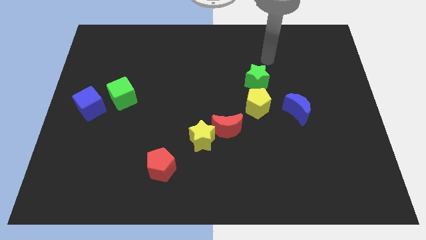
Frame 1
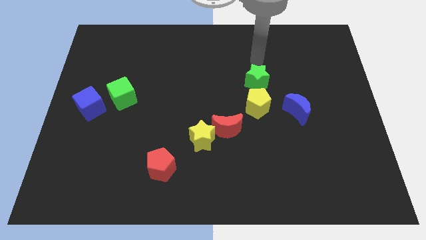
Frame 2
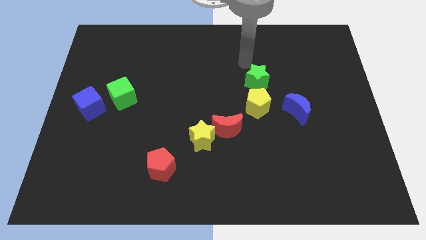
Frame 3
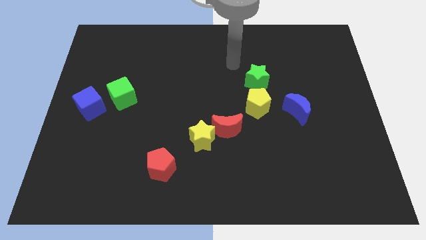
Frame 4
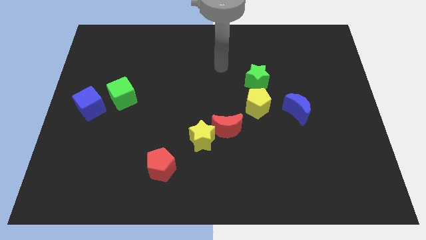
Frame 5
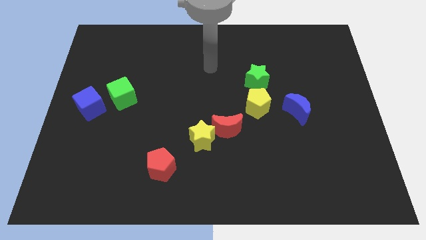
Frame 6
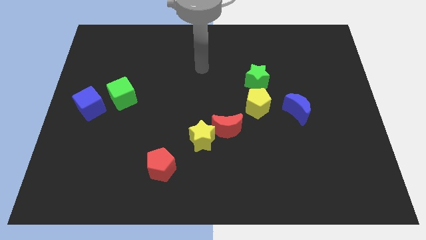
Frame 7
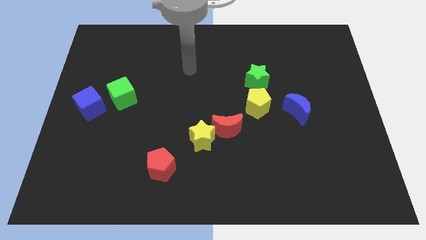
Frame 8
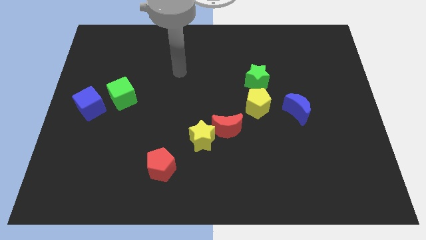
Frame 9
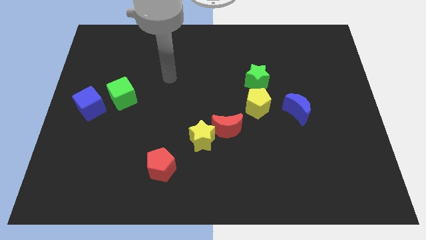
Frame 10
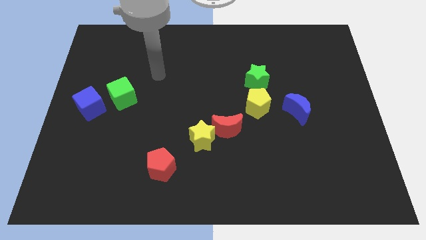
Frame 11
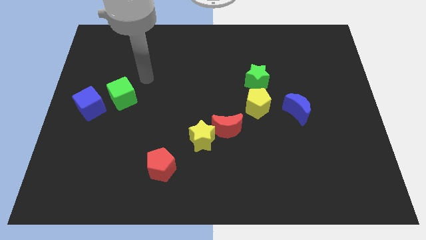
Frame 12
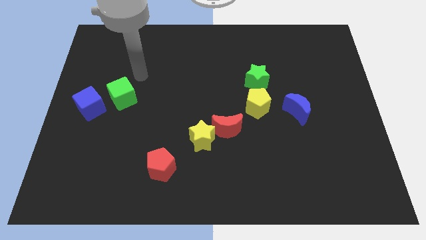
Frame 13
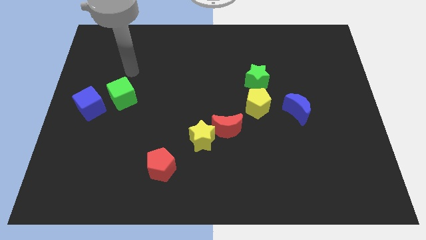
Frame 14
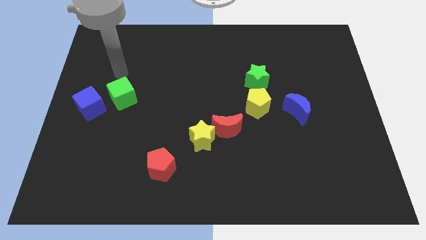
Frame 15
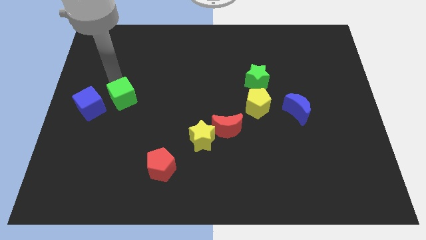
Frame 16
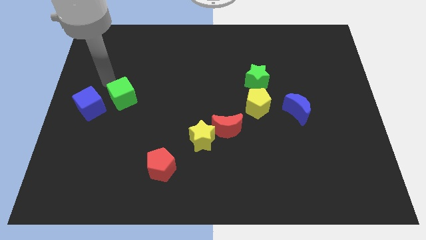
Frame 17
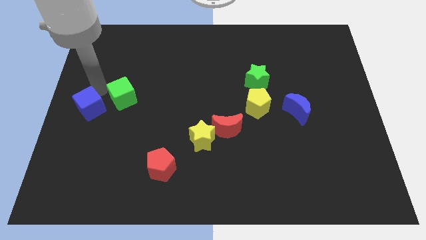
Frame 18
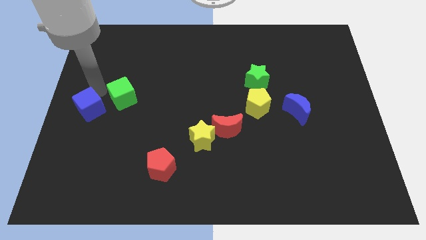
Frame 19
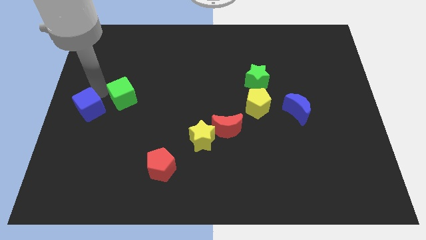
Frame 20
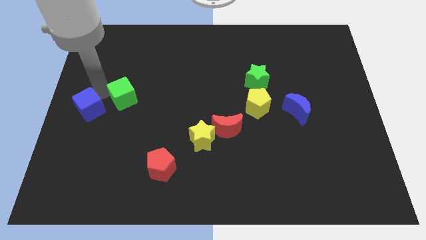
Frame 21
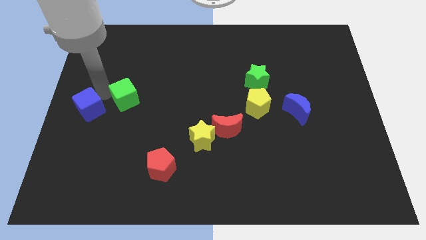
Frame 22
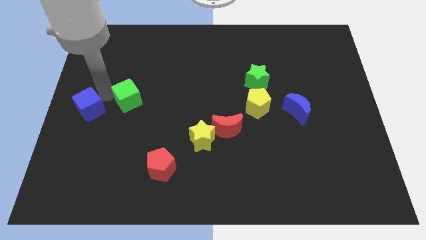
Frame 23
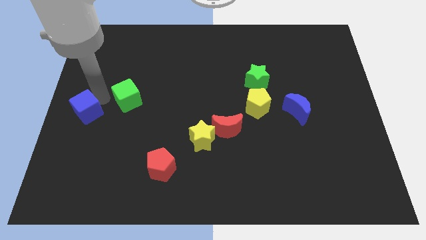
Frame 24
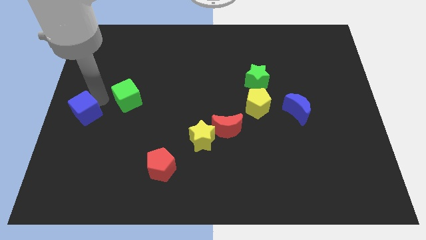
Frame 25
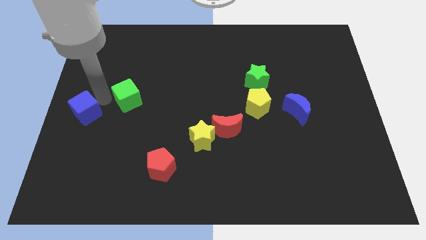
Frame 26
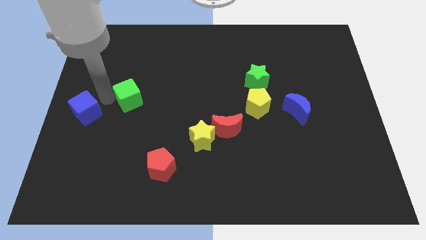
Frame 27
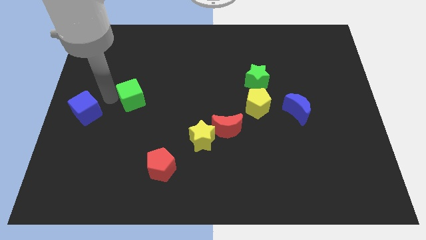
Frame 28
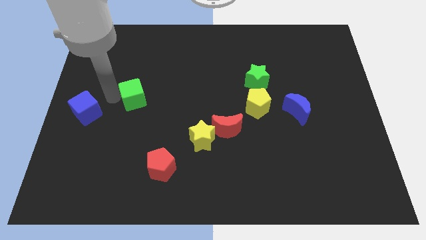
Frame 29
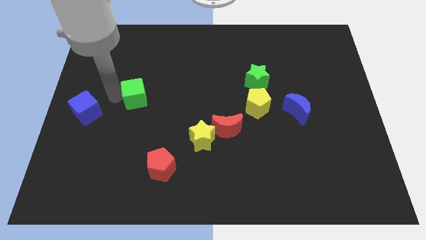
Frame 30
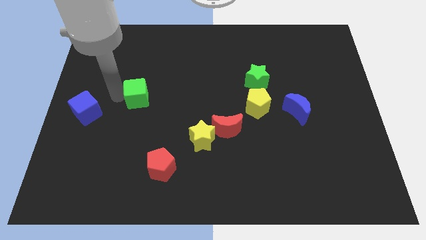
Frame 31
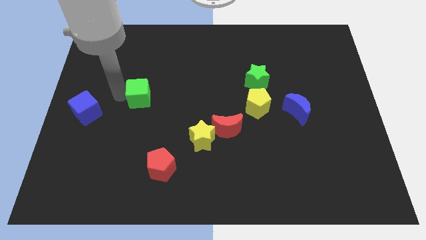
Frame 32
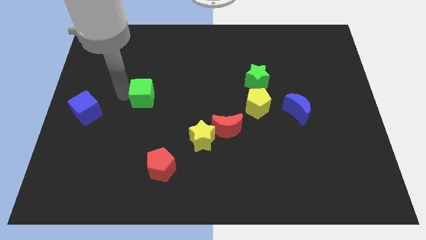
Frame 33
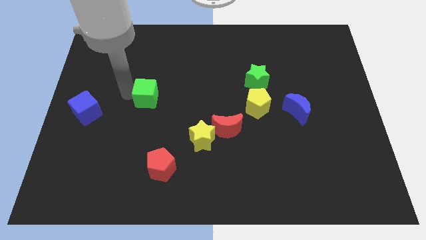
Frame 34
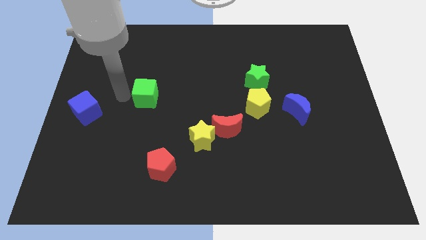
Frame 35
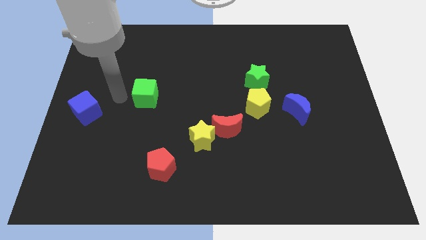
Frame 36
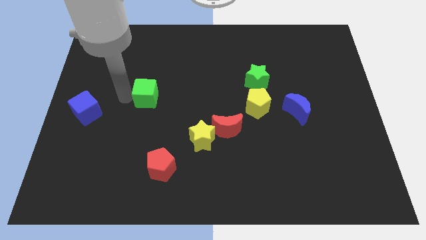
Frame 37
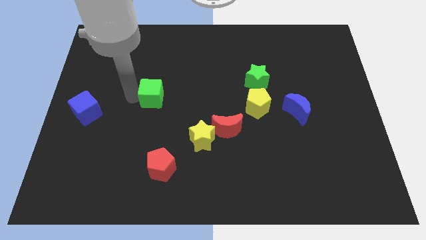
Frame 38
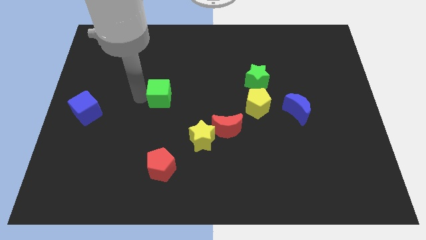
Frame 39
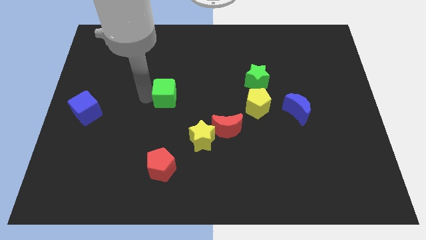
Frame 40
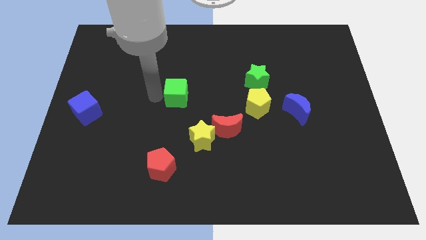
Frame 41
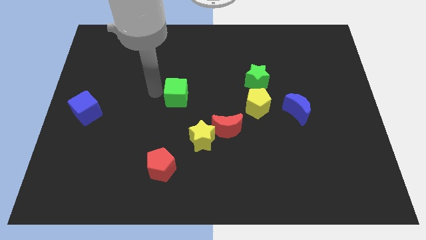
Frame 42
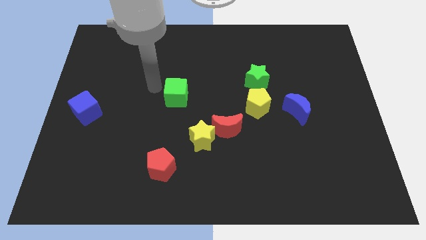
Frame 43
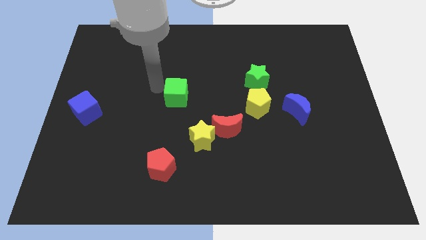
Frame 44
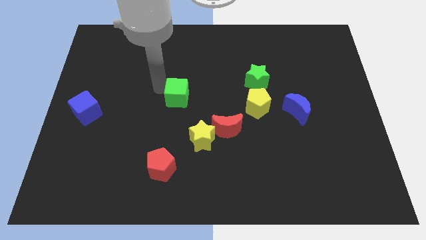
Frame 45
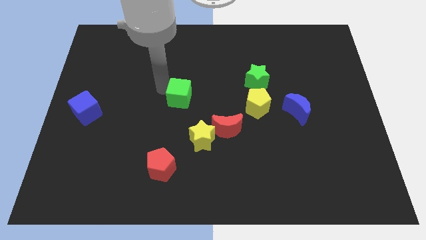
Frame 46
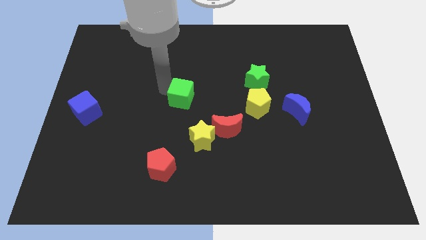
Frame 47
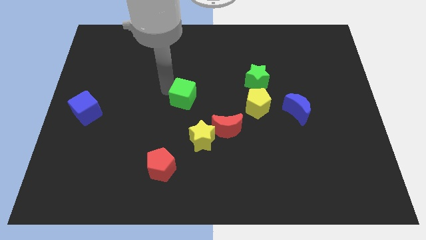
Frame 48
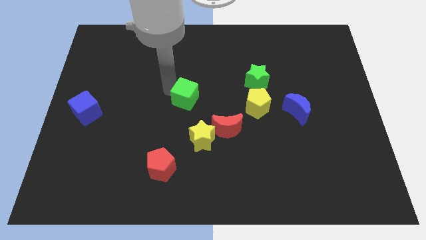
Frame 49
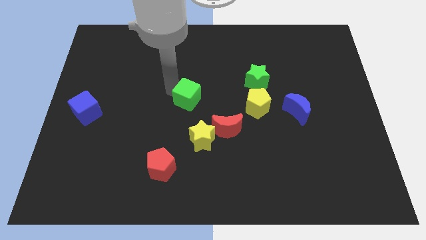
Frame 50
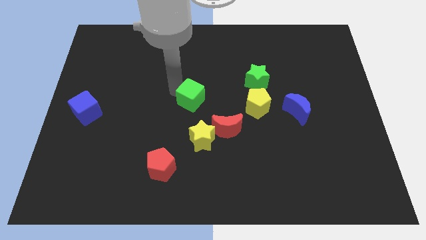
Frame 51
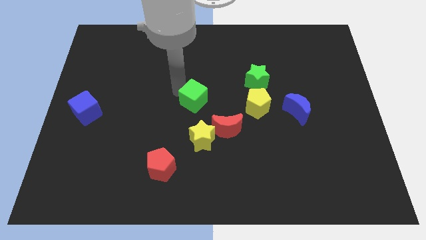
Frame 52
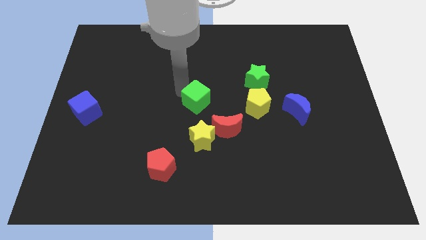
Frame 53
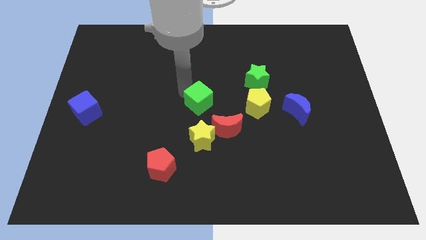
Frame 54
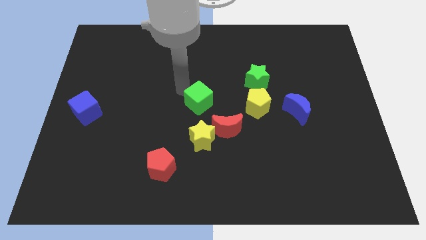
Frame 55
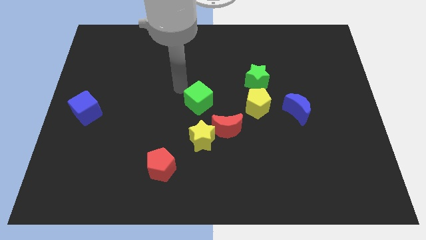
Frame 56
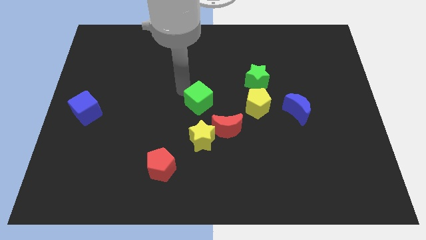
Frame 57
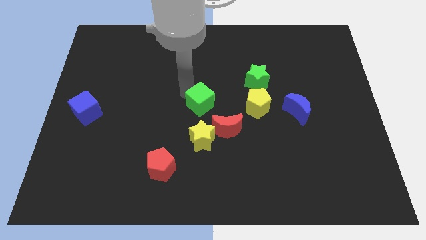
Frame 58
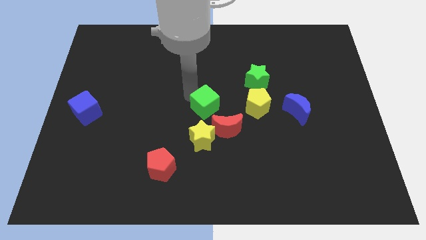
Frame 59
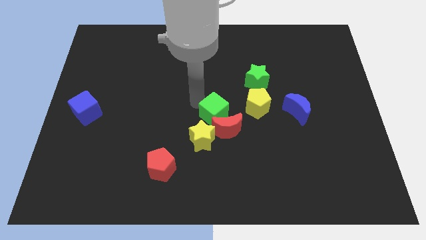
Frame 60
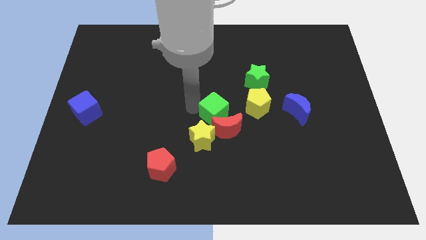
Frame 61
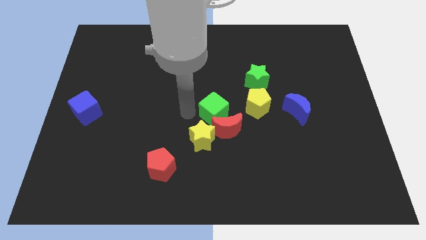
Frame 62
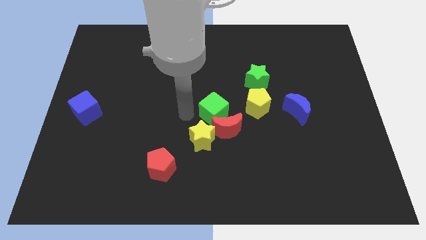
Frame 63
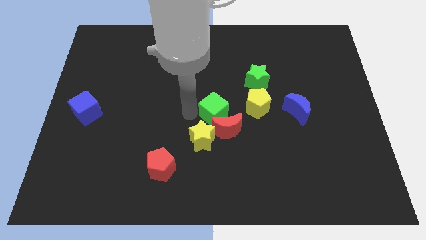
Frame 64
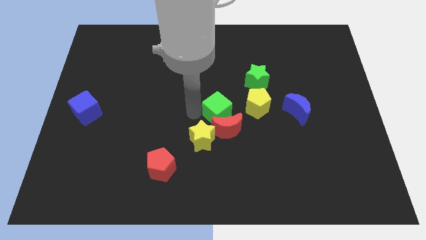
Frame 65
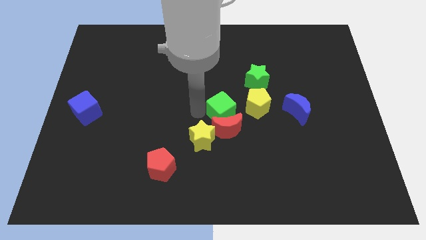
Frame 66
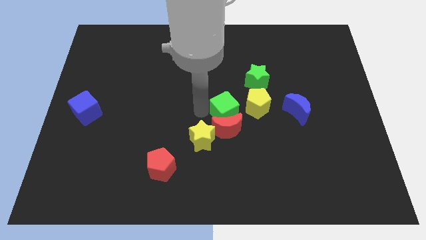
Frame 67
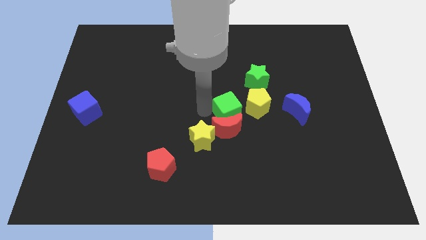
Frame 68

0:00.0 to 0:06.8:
put the green cube left of the blue moon

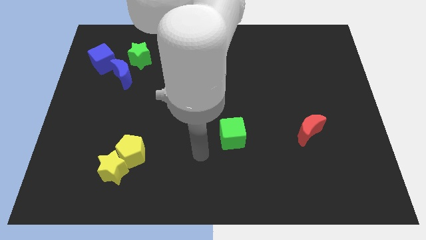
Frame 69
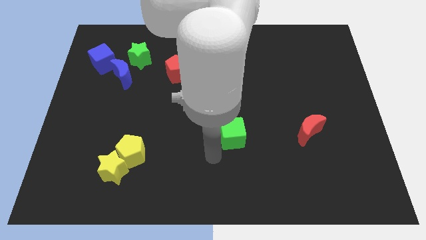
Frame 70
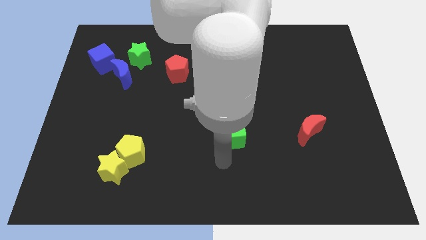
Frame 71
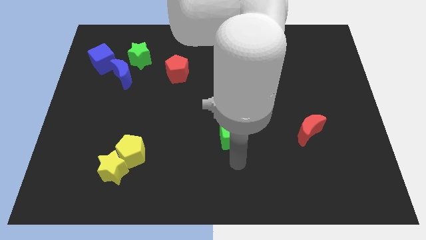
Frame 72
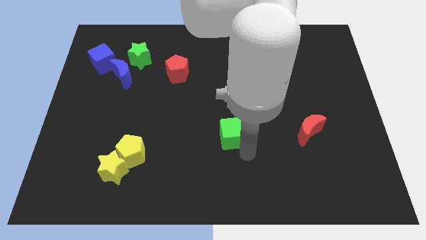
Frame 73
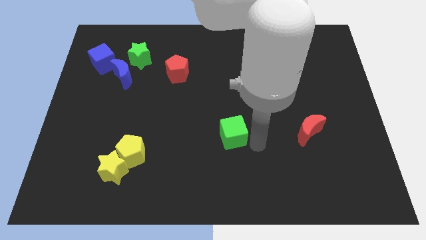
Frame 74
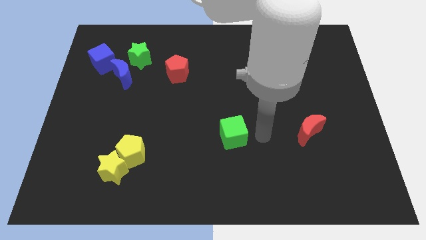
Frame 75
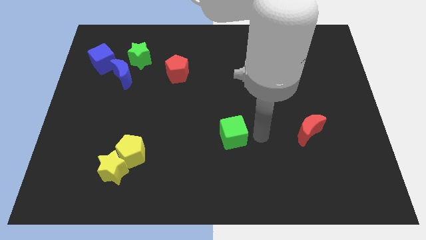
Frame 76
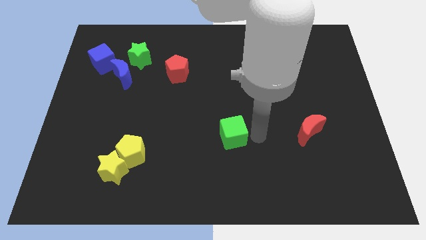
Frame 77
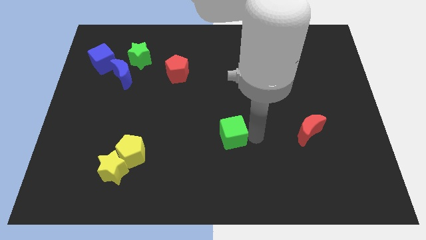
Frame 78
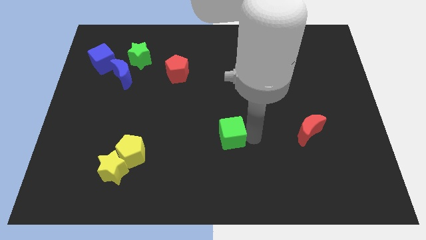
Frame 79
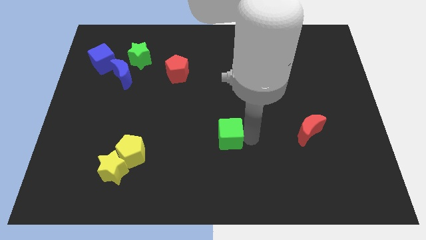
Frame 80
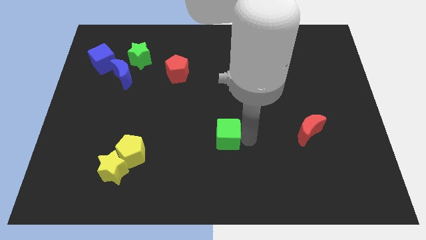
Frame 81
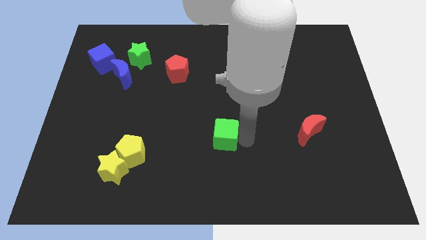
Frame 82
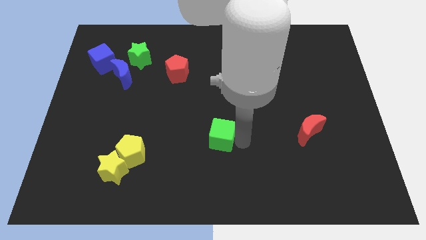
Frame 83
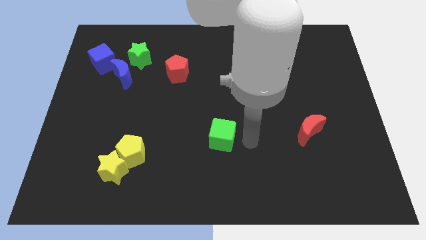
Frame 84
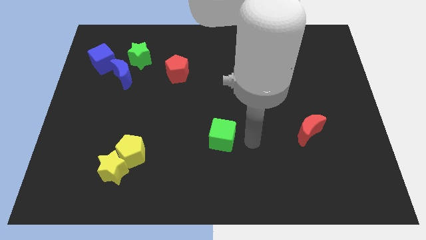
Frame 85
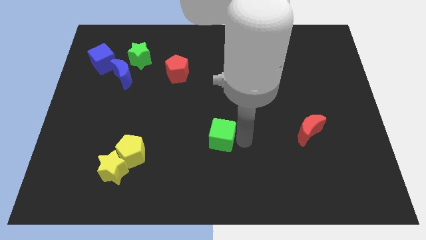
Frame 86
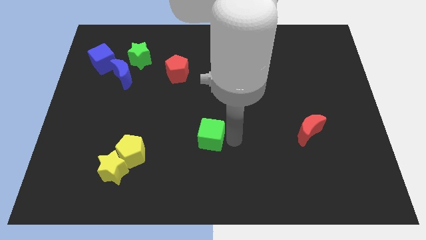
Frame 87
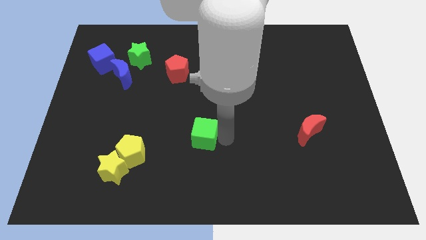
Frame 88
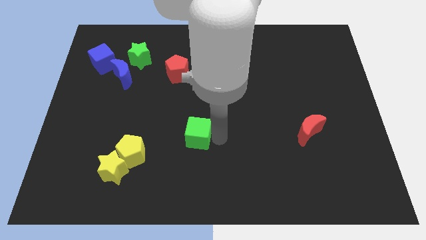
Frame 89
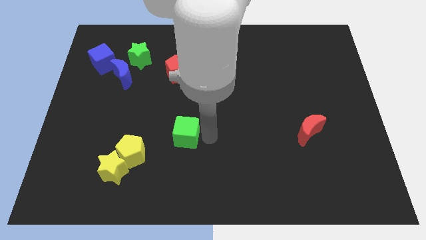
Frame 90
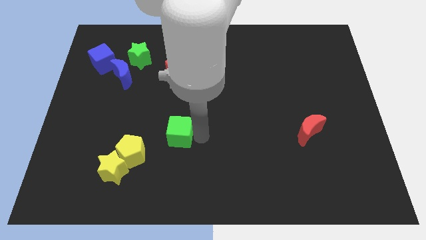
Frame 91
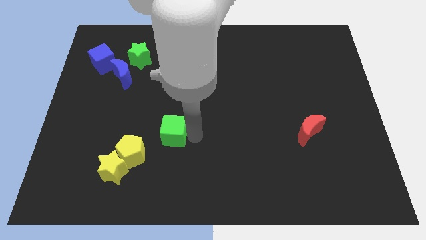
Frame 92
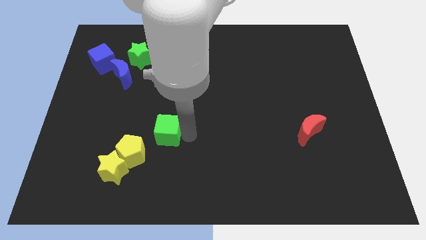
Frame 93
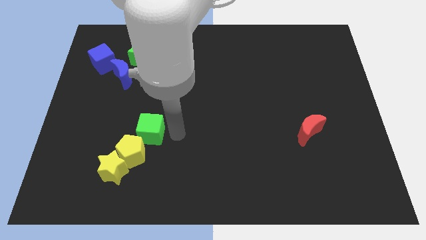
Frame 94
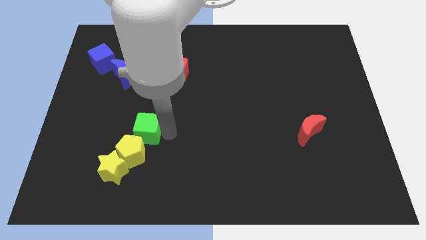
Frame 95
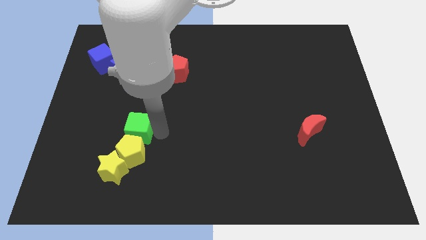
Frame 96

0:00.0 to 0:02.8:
move the green cube to the top of the yellow star
